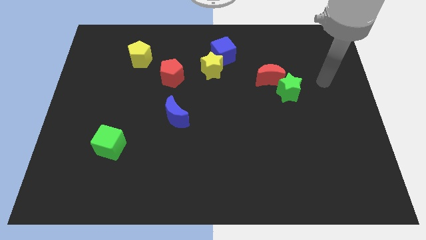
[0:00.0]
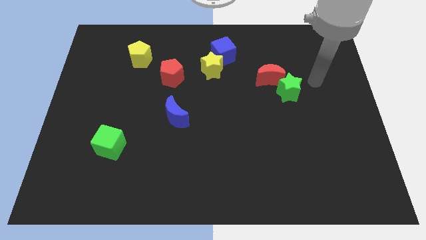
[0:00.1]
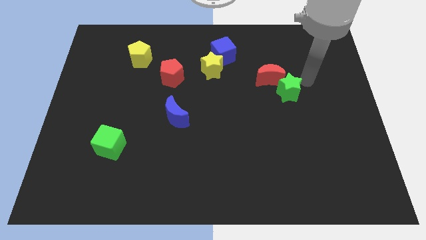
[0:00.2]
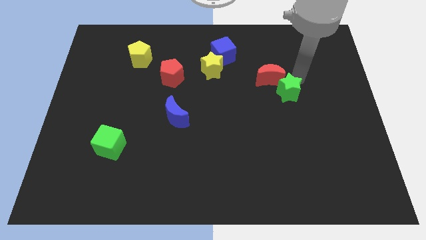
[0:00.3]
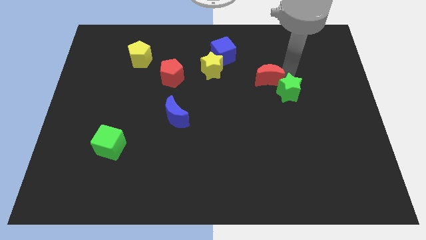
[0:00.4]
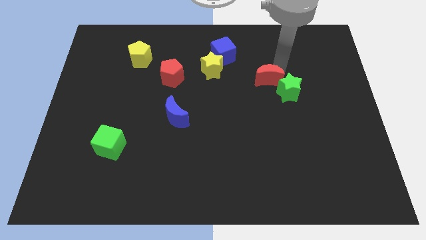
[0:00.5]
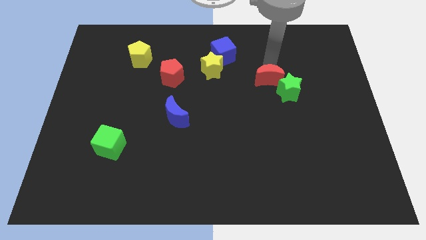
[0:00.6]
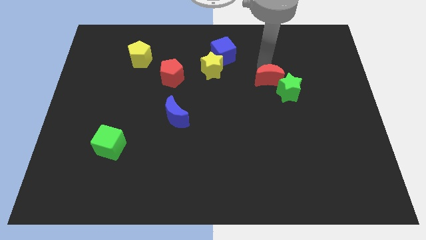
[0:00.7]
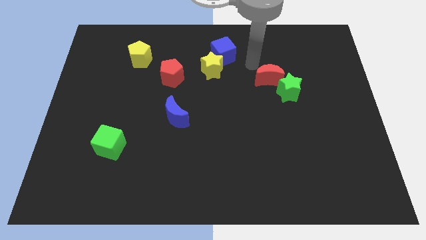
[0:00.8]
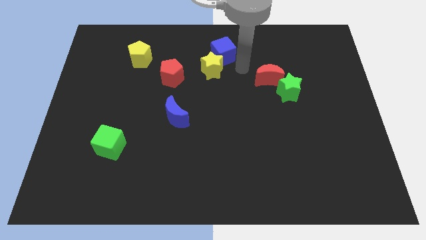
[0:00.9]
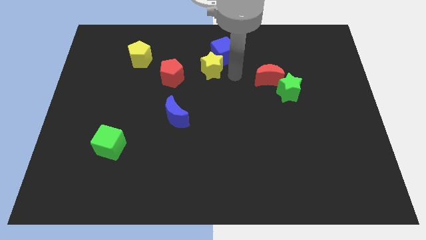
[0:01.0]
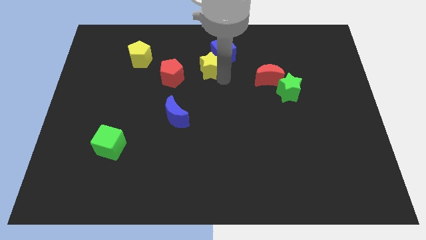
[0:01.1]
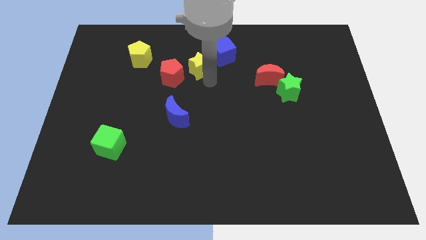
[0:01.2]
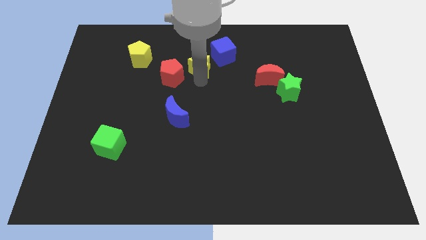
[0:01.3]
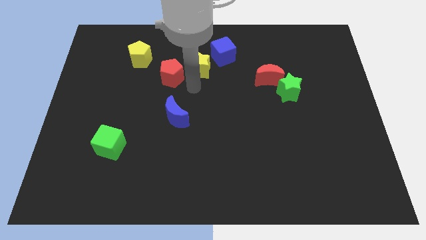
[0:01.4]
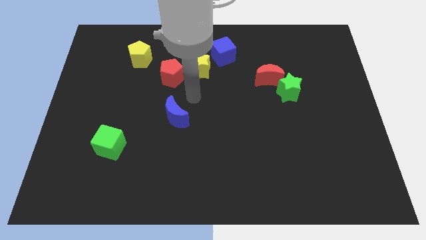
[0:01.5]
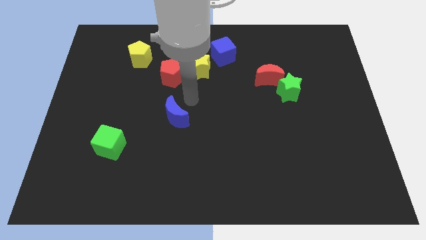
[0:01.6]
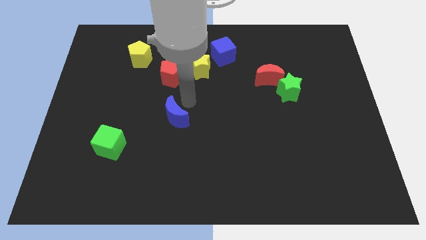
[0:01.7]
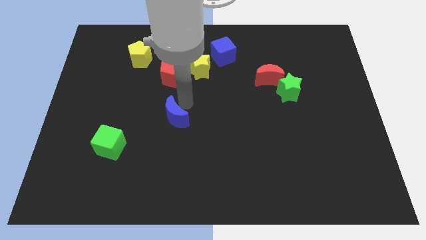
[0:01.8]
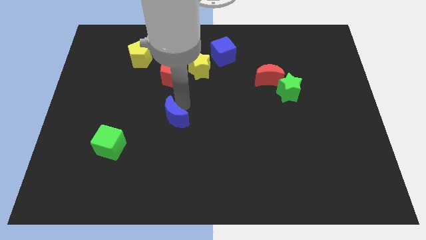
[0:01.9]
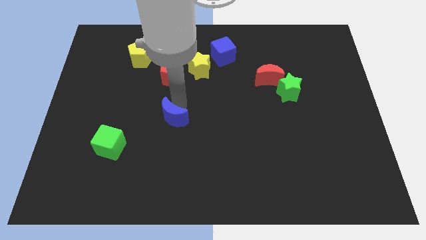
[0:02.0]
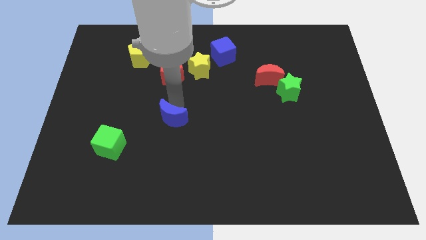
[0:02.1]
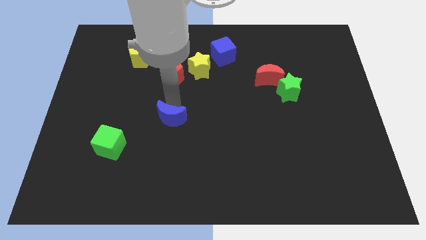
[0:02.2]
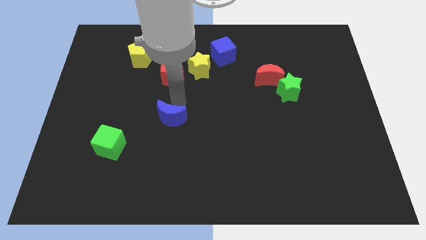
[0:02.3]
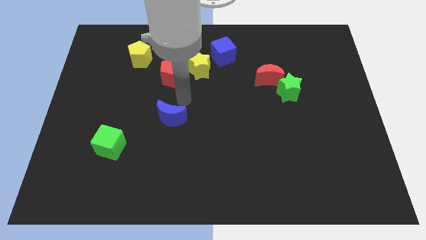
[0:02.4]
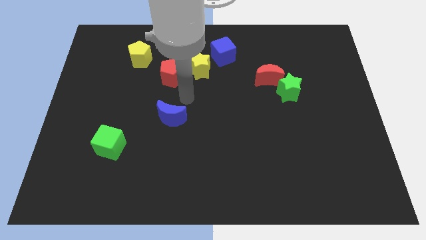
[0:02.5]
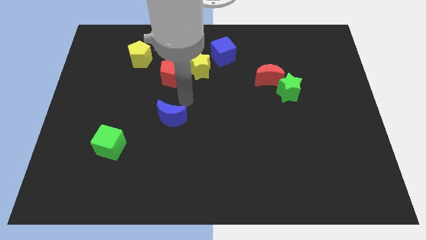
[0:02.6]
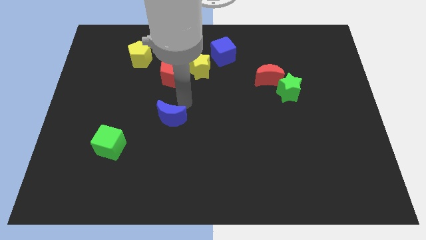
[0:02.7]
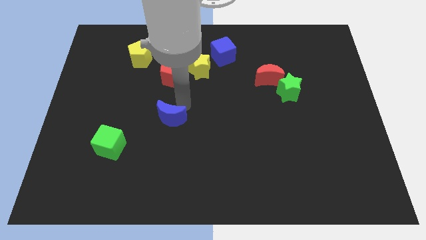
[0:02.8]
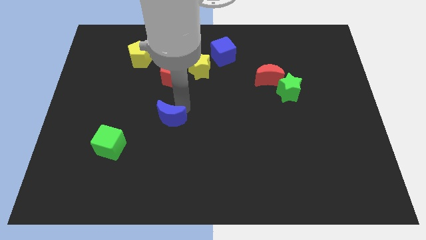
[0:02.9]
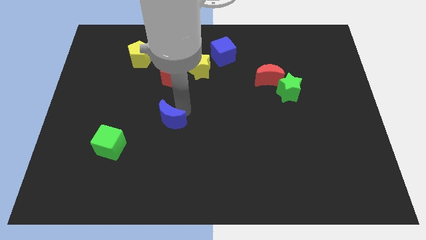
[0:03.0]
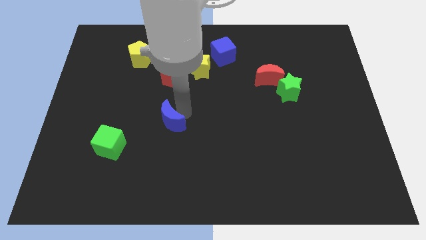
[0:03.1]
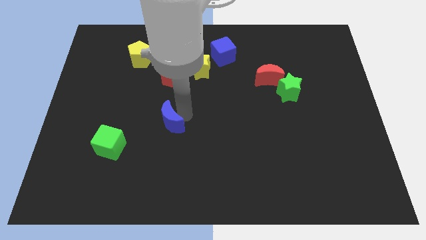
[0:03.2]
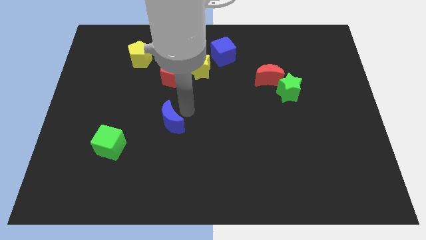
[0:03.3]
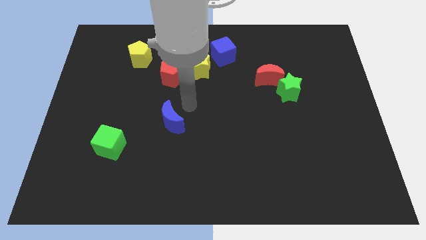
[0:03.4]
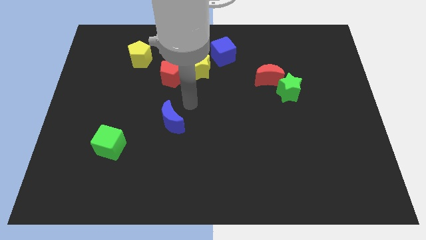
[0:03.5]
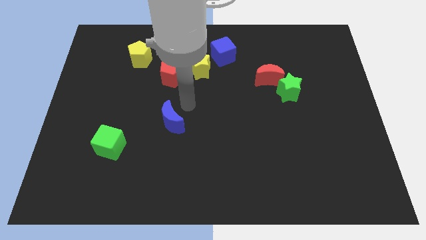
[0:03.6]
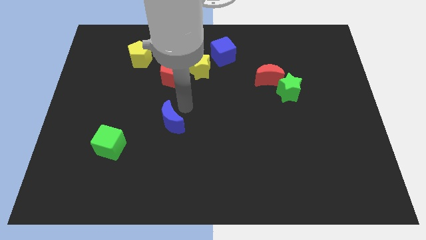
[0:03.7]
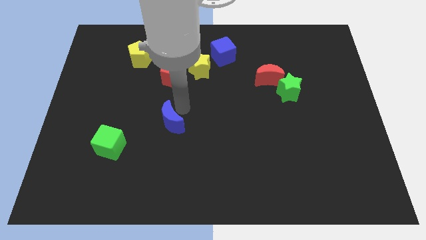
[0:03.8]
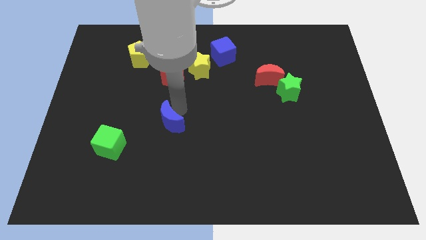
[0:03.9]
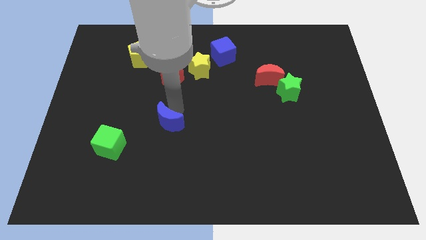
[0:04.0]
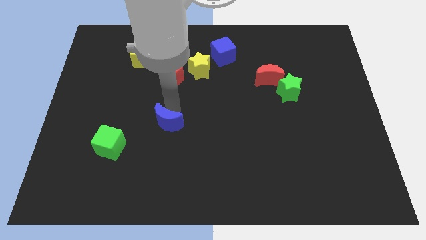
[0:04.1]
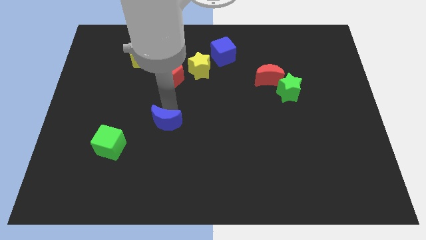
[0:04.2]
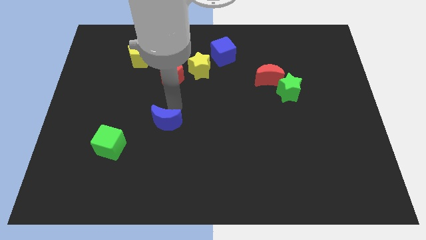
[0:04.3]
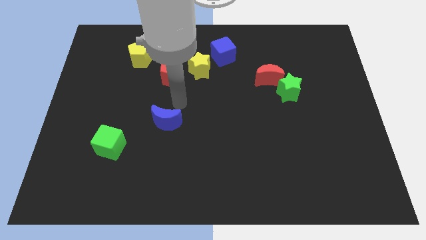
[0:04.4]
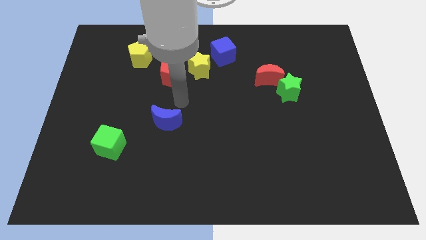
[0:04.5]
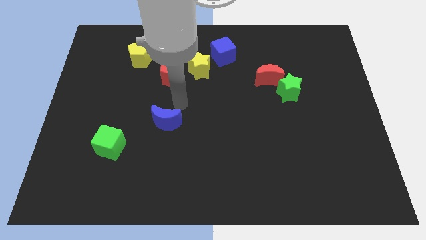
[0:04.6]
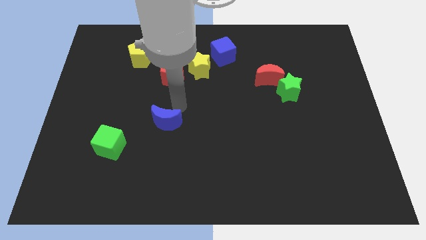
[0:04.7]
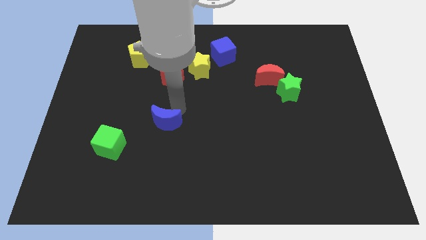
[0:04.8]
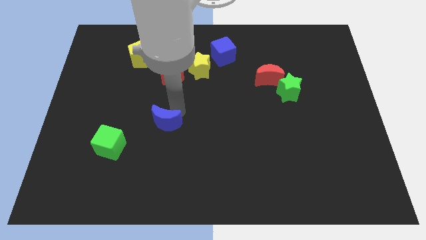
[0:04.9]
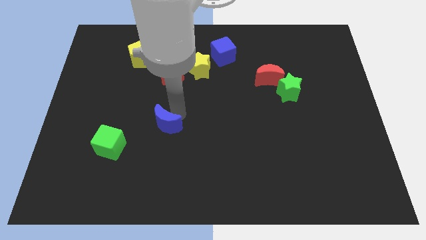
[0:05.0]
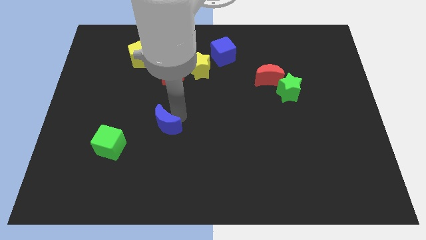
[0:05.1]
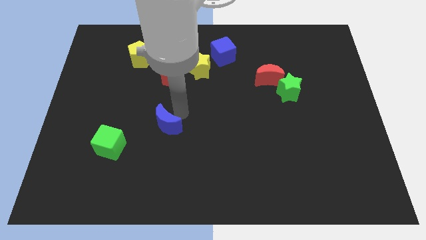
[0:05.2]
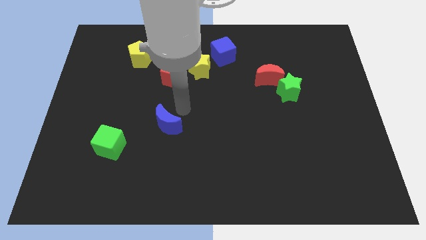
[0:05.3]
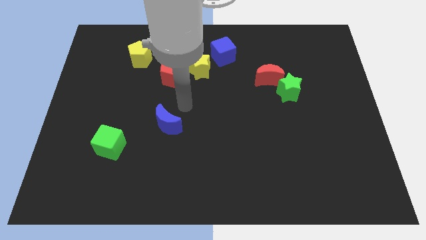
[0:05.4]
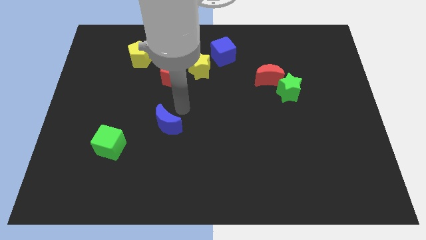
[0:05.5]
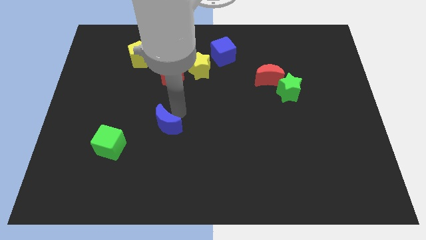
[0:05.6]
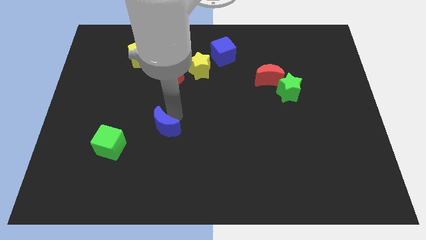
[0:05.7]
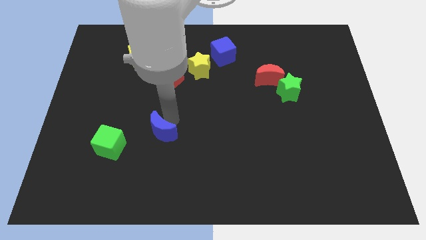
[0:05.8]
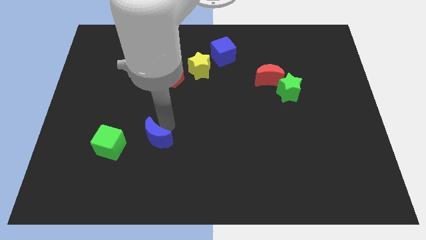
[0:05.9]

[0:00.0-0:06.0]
move the blue moon downwards and then to the left a bit

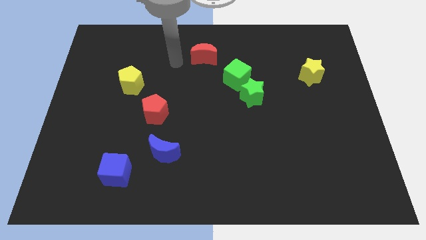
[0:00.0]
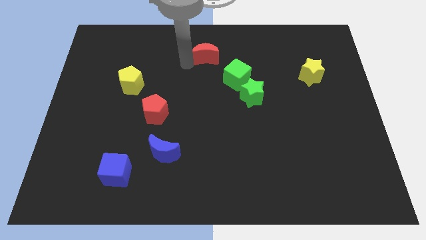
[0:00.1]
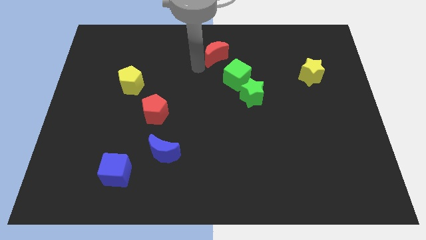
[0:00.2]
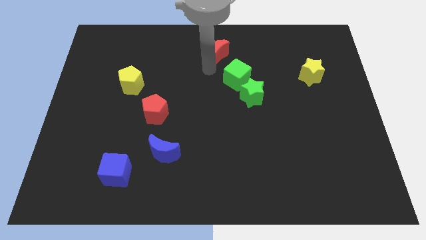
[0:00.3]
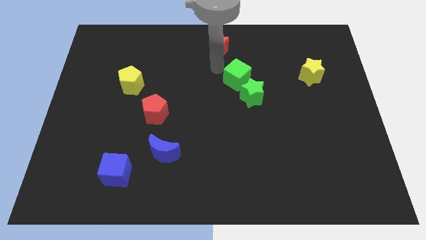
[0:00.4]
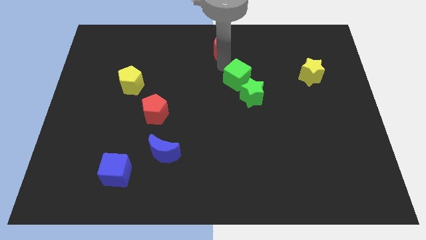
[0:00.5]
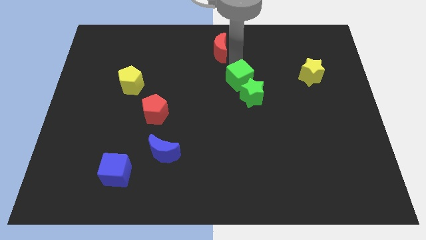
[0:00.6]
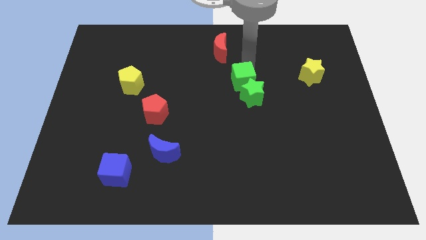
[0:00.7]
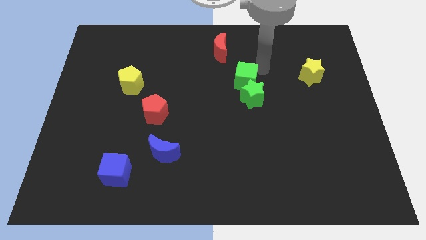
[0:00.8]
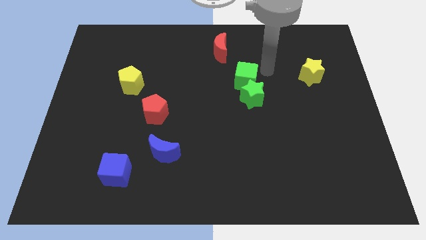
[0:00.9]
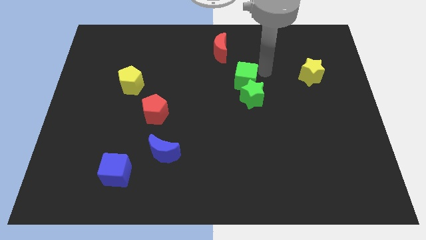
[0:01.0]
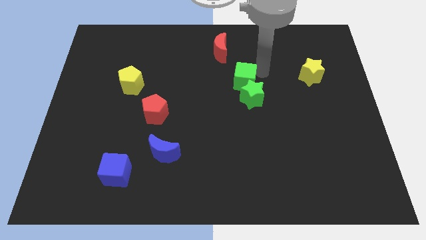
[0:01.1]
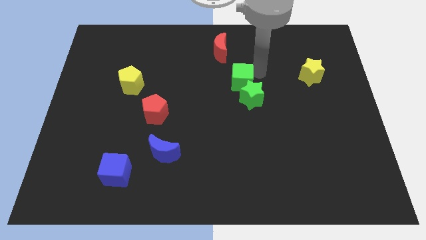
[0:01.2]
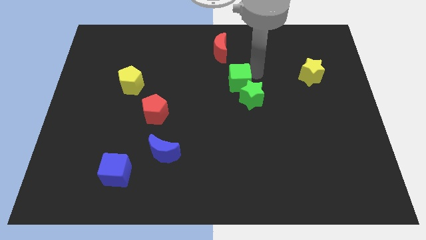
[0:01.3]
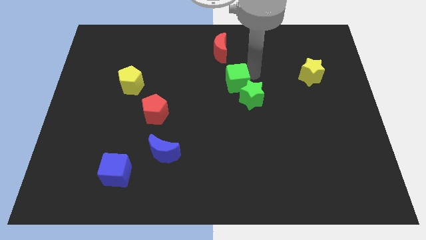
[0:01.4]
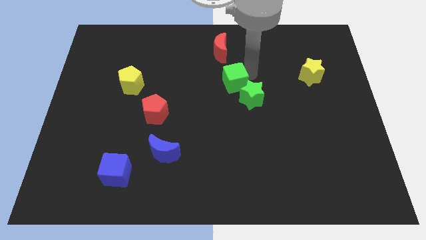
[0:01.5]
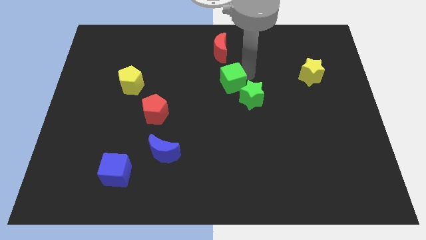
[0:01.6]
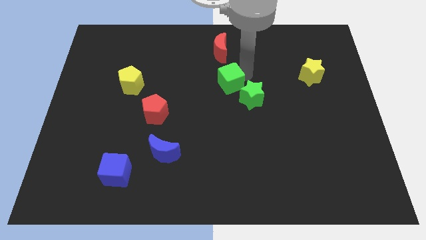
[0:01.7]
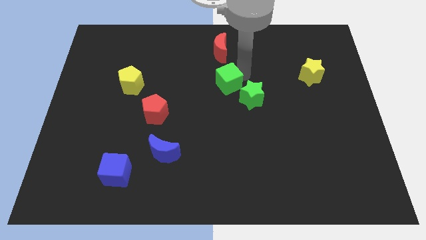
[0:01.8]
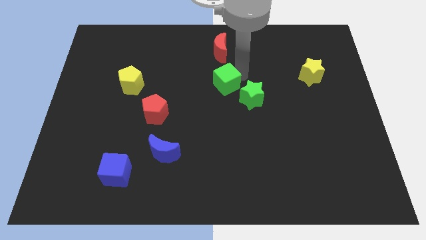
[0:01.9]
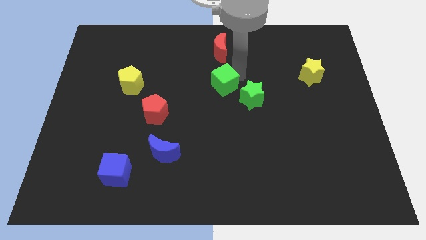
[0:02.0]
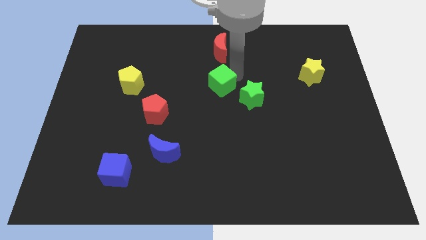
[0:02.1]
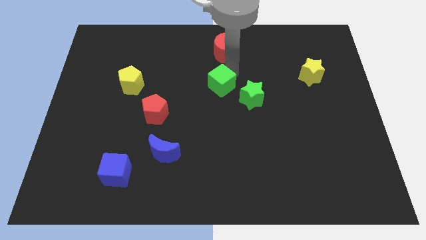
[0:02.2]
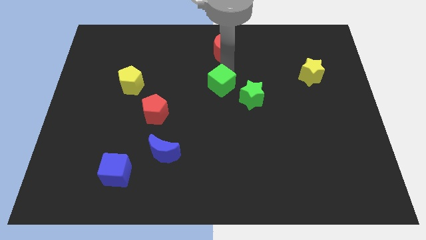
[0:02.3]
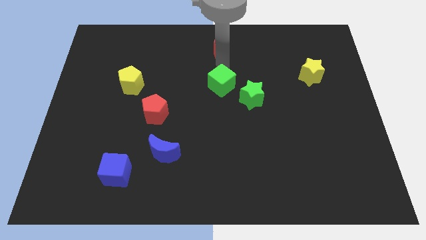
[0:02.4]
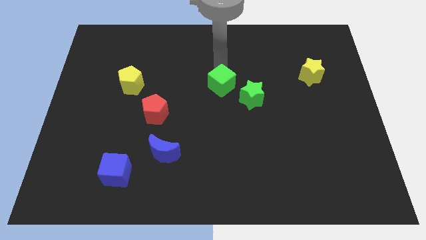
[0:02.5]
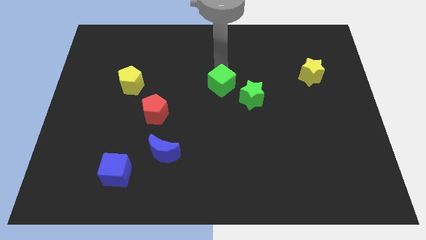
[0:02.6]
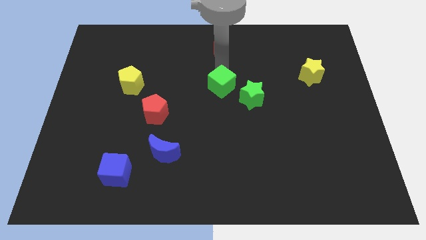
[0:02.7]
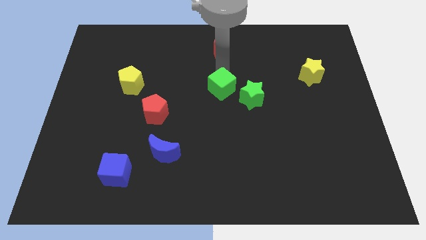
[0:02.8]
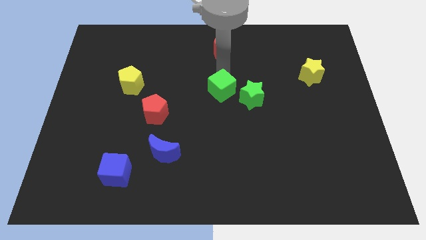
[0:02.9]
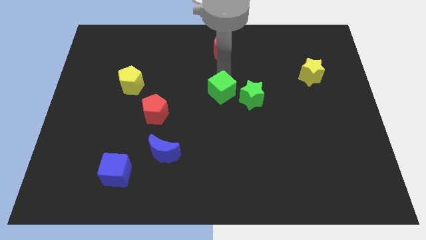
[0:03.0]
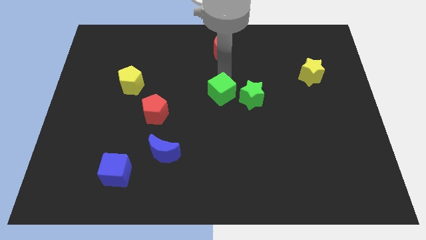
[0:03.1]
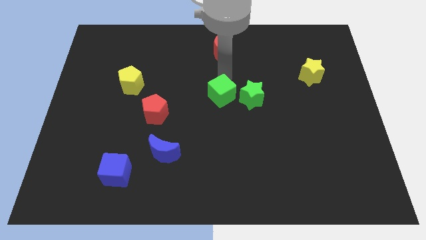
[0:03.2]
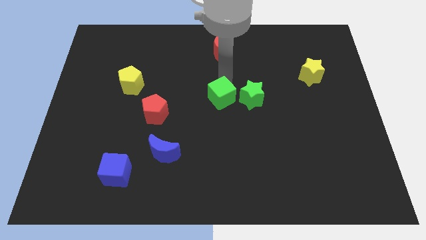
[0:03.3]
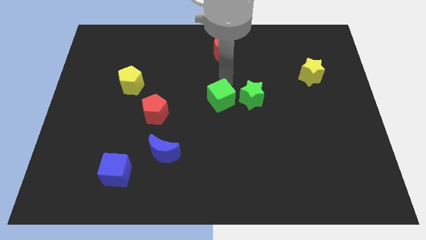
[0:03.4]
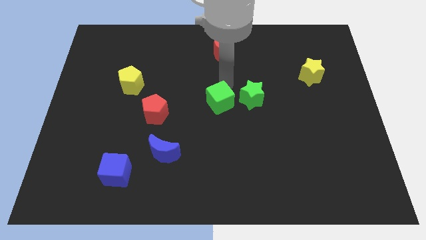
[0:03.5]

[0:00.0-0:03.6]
slide the green cube a bit downwards
